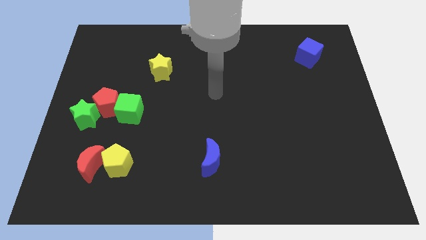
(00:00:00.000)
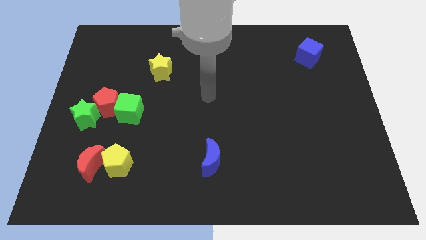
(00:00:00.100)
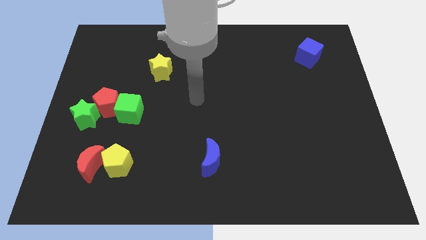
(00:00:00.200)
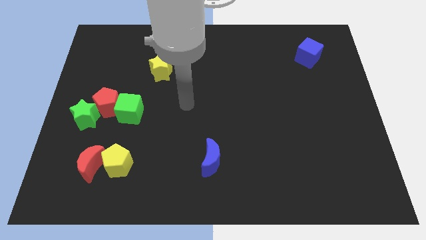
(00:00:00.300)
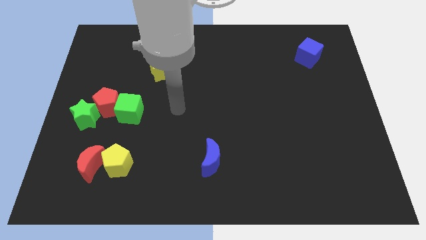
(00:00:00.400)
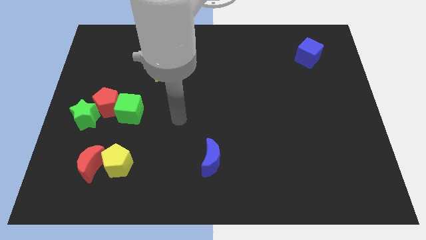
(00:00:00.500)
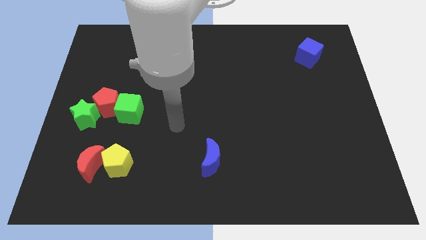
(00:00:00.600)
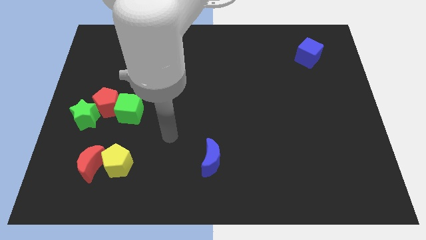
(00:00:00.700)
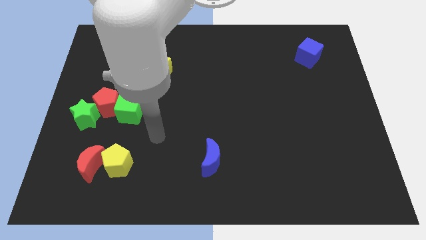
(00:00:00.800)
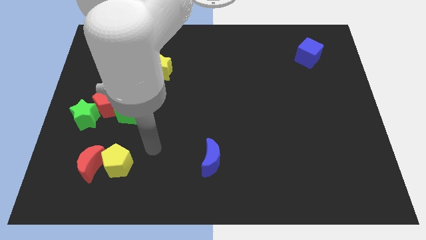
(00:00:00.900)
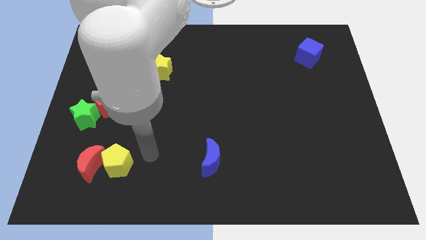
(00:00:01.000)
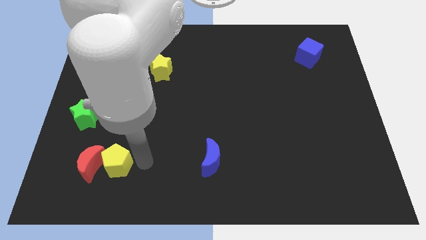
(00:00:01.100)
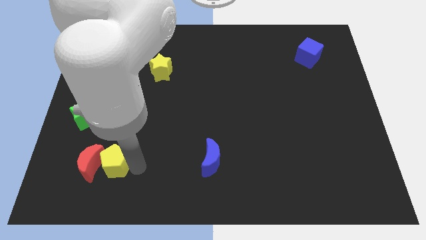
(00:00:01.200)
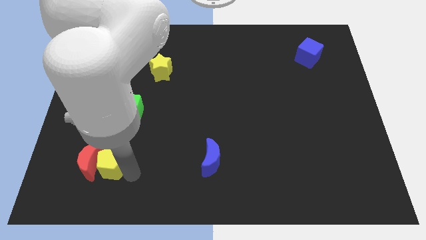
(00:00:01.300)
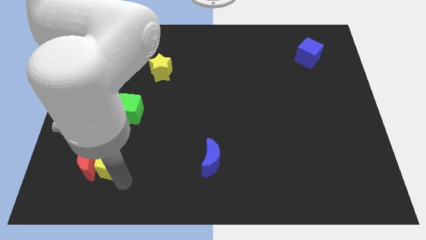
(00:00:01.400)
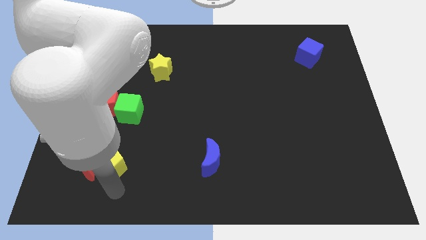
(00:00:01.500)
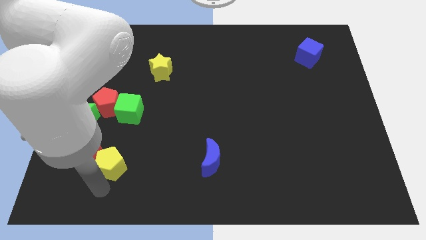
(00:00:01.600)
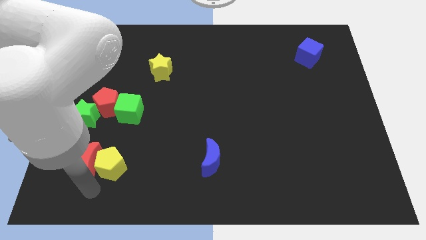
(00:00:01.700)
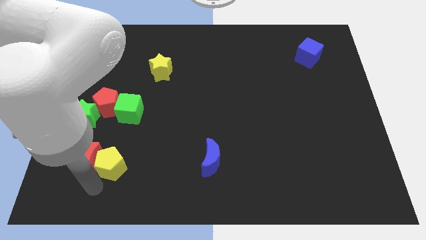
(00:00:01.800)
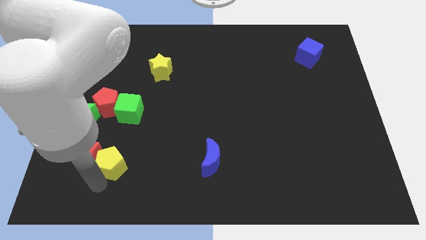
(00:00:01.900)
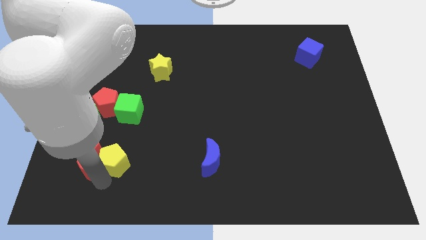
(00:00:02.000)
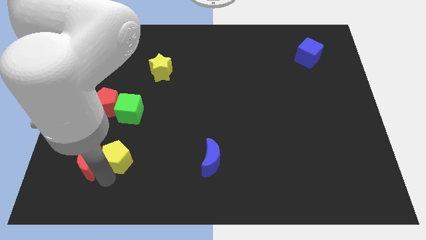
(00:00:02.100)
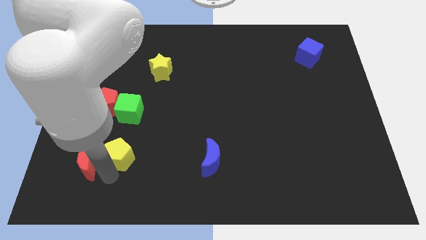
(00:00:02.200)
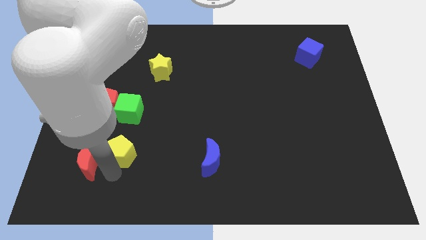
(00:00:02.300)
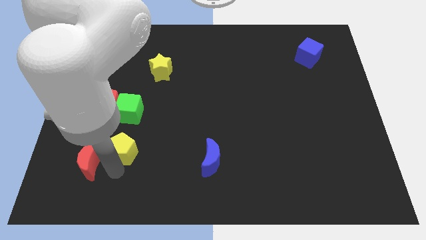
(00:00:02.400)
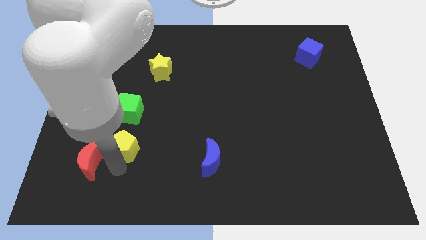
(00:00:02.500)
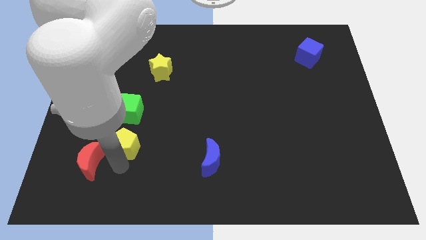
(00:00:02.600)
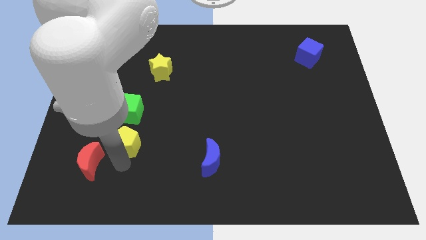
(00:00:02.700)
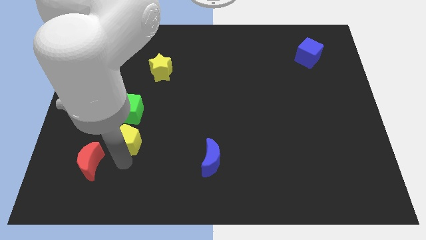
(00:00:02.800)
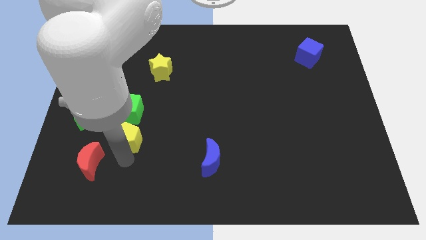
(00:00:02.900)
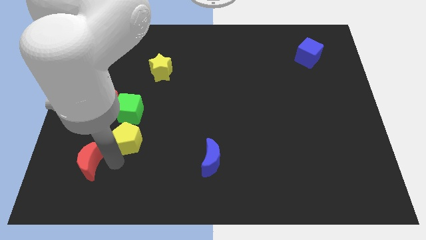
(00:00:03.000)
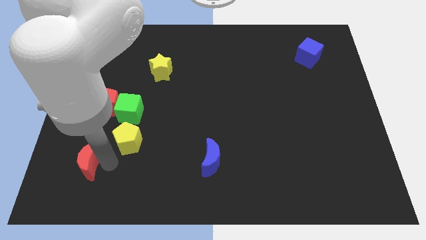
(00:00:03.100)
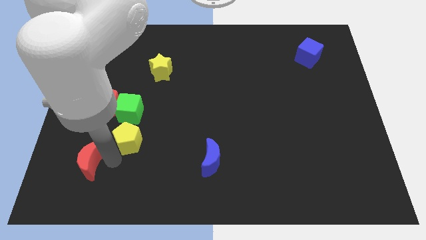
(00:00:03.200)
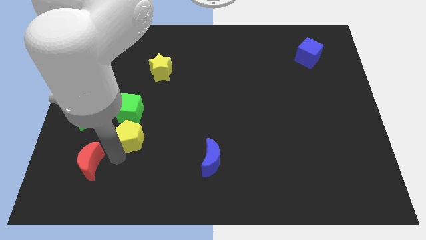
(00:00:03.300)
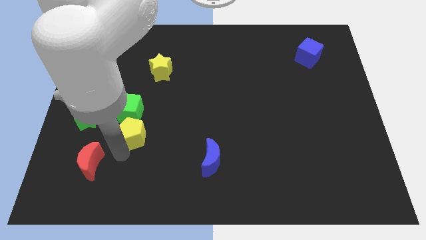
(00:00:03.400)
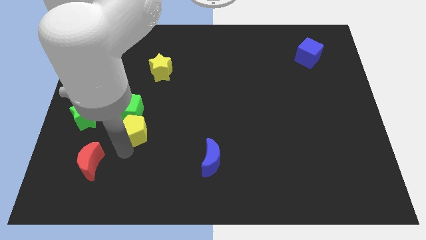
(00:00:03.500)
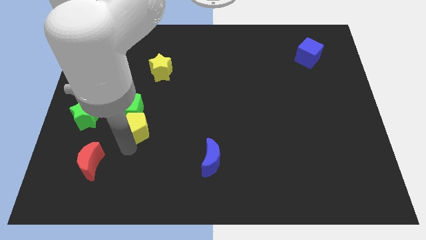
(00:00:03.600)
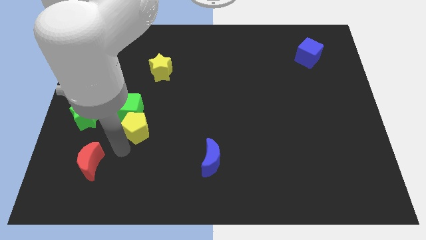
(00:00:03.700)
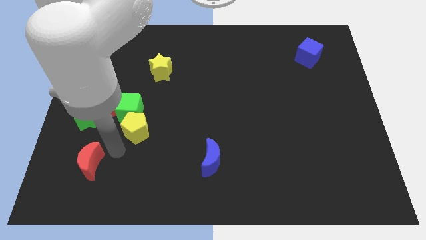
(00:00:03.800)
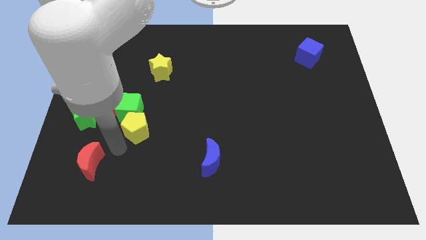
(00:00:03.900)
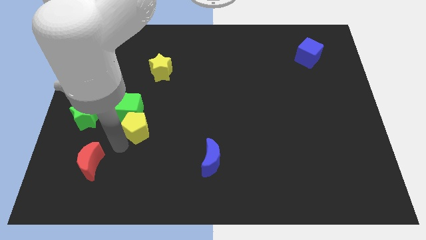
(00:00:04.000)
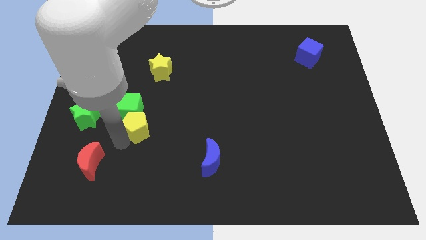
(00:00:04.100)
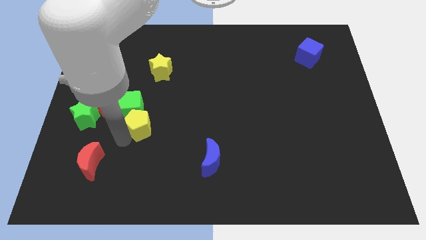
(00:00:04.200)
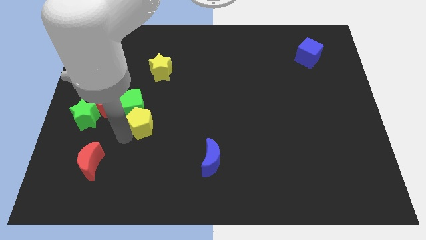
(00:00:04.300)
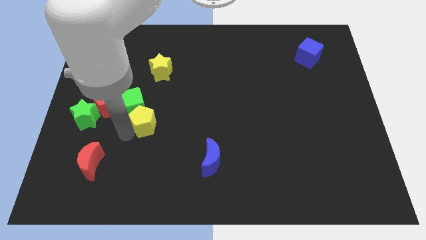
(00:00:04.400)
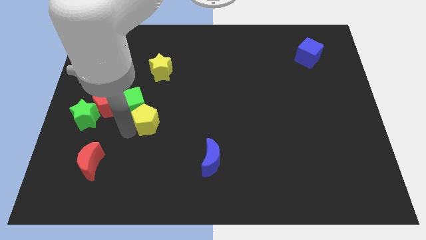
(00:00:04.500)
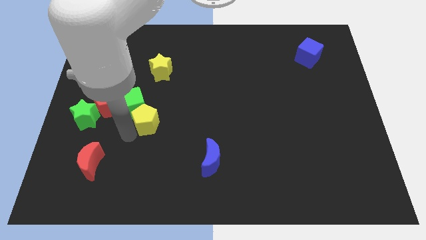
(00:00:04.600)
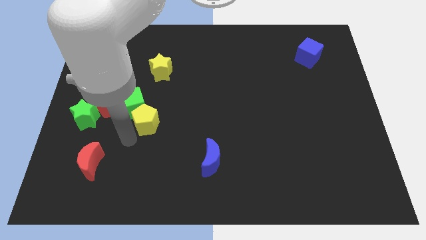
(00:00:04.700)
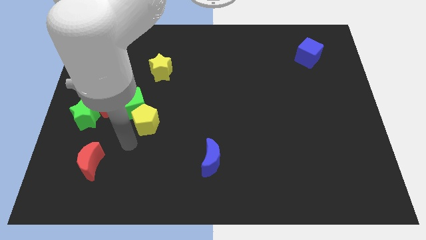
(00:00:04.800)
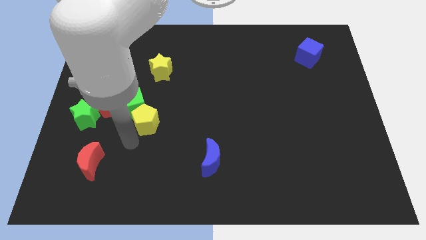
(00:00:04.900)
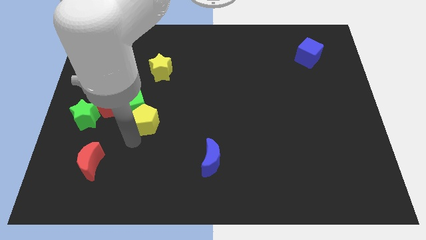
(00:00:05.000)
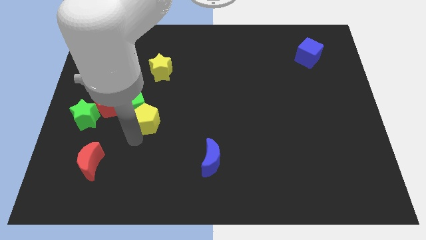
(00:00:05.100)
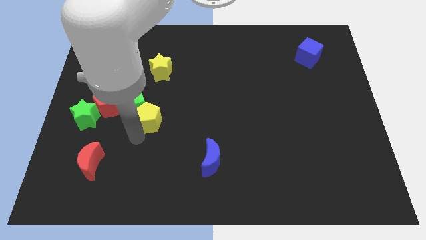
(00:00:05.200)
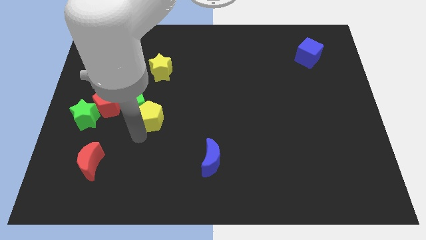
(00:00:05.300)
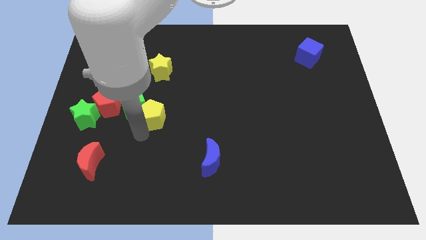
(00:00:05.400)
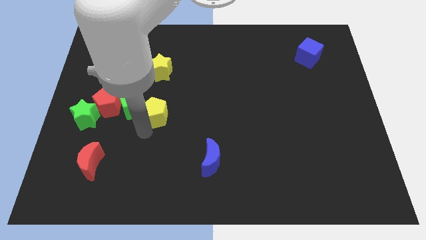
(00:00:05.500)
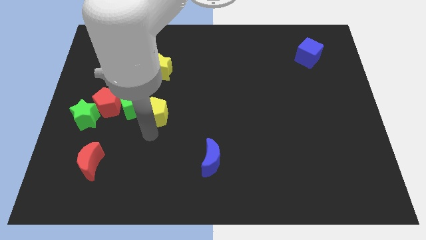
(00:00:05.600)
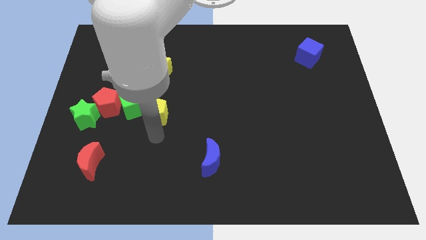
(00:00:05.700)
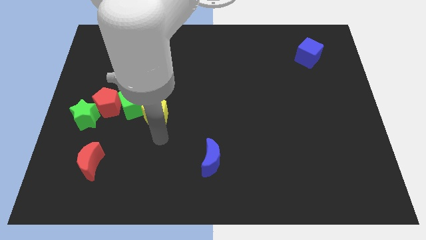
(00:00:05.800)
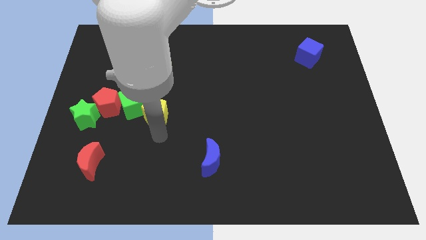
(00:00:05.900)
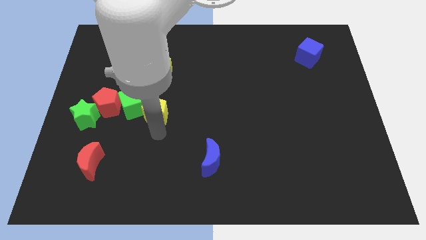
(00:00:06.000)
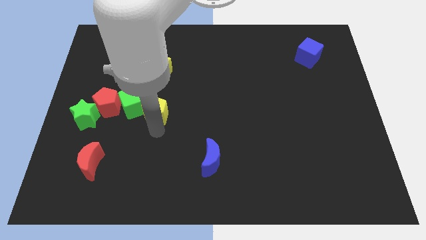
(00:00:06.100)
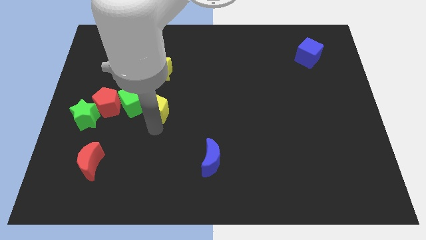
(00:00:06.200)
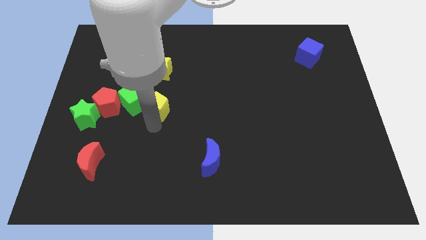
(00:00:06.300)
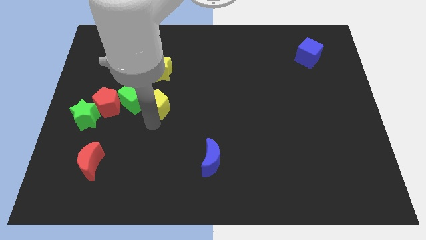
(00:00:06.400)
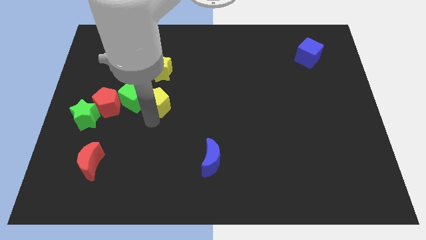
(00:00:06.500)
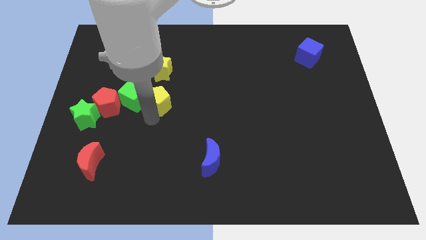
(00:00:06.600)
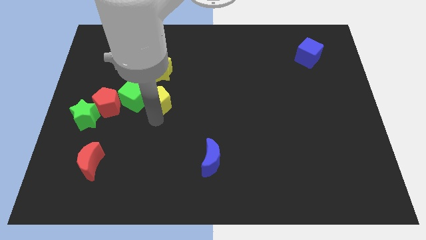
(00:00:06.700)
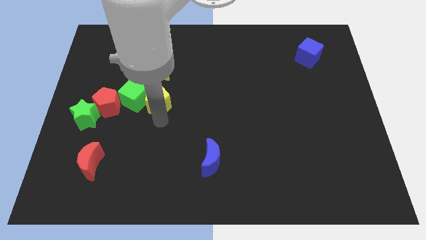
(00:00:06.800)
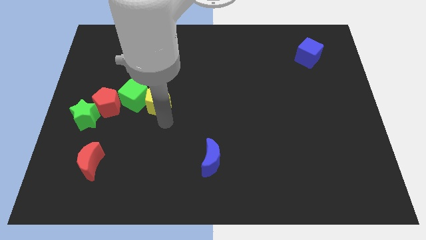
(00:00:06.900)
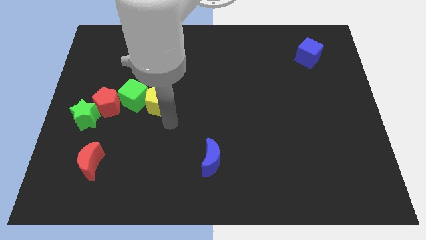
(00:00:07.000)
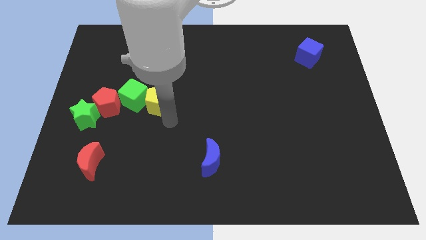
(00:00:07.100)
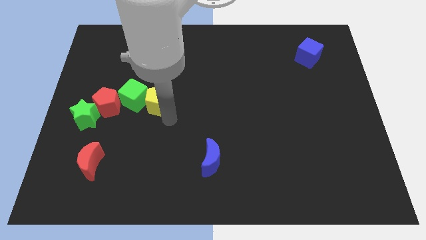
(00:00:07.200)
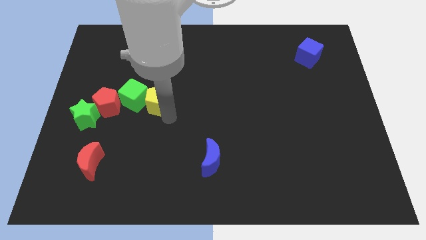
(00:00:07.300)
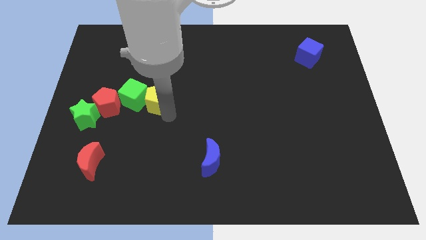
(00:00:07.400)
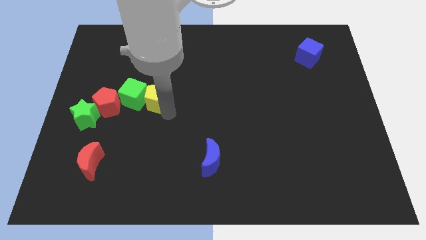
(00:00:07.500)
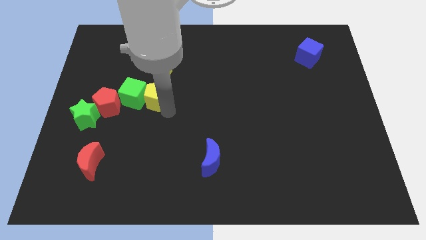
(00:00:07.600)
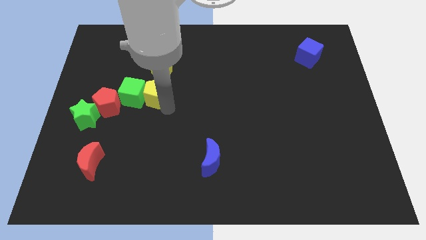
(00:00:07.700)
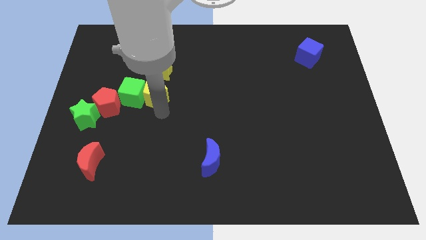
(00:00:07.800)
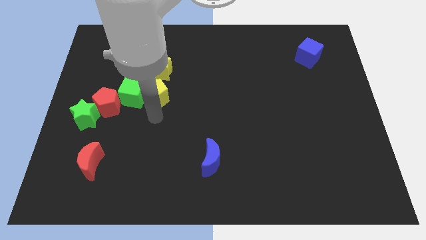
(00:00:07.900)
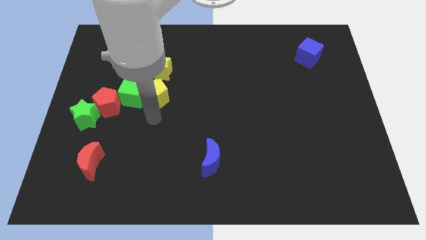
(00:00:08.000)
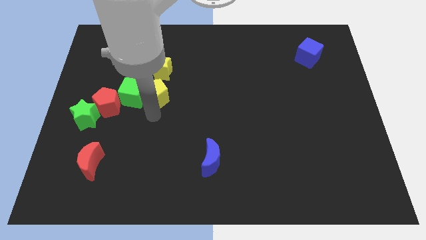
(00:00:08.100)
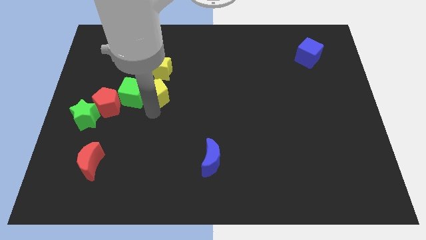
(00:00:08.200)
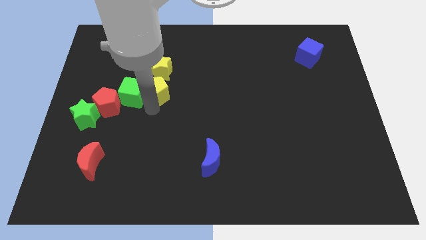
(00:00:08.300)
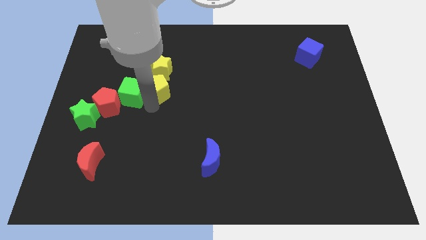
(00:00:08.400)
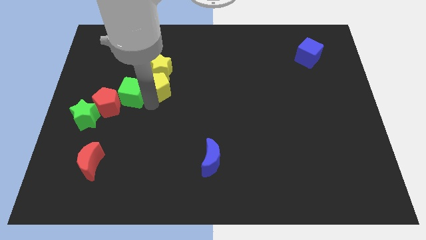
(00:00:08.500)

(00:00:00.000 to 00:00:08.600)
move the yellow pentagon next to the yellow star
